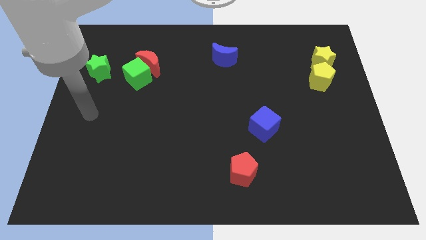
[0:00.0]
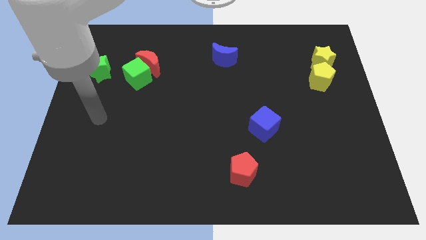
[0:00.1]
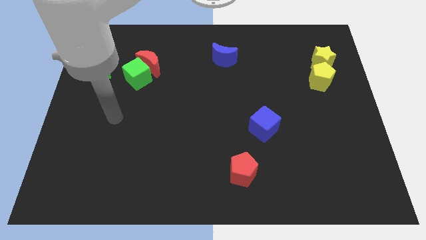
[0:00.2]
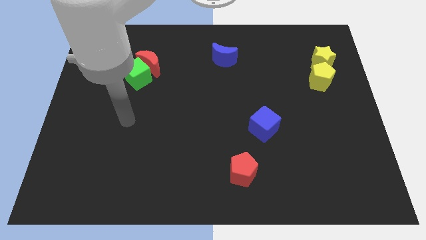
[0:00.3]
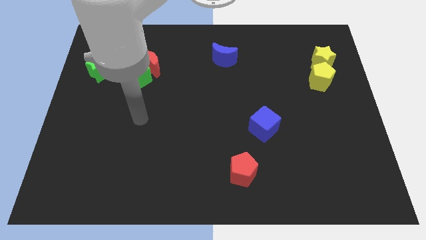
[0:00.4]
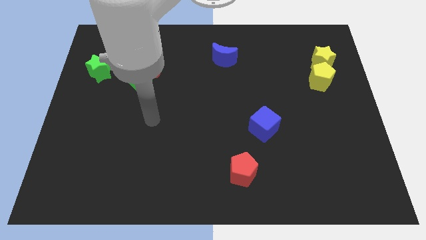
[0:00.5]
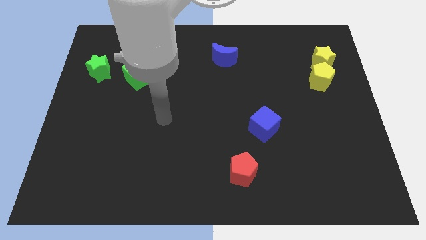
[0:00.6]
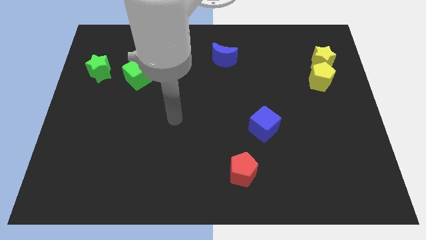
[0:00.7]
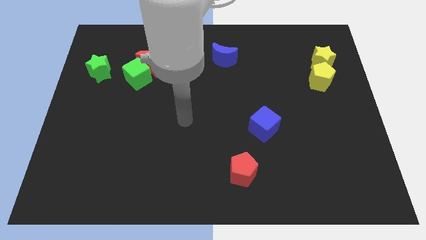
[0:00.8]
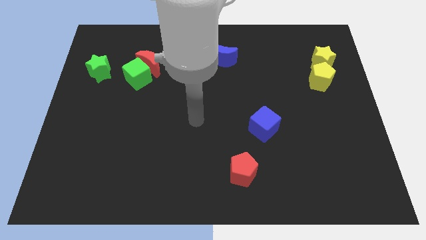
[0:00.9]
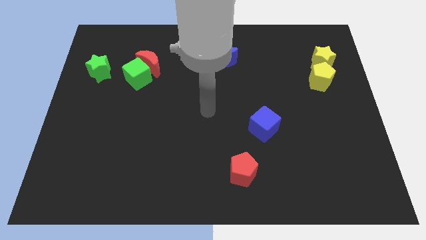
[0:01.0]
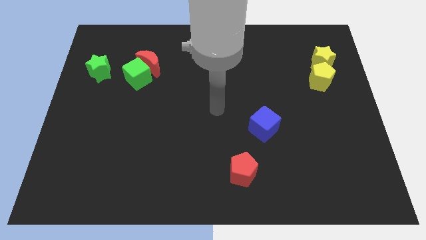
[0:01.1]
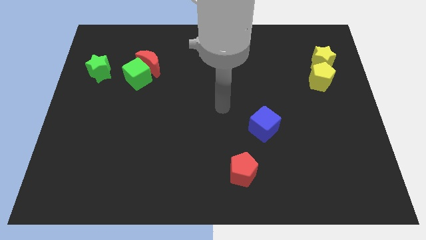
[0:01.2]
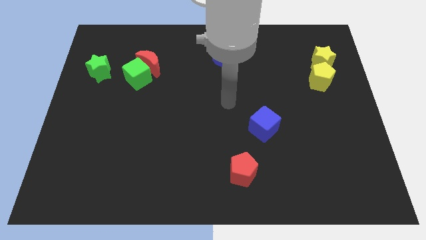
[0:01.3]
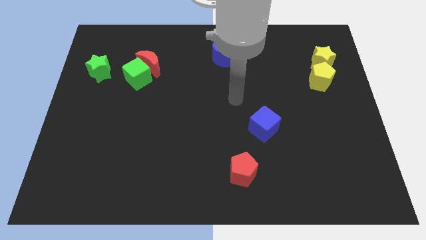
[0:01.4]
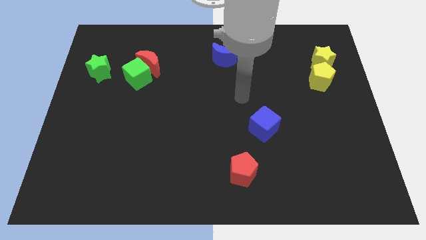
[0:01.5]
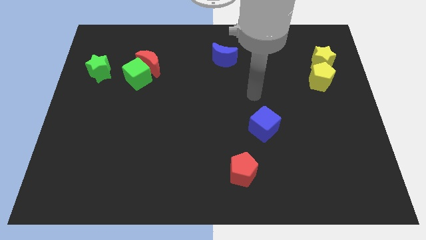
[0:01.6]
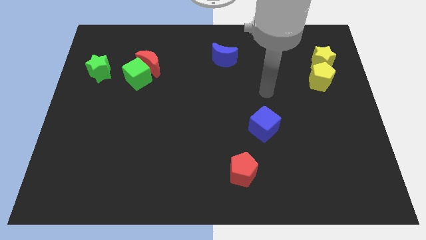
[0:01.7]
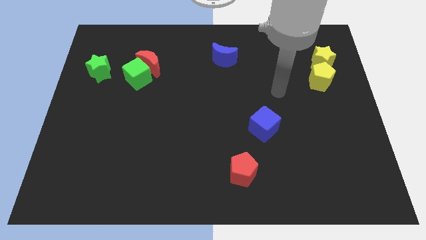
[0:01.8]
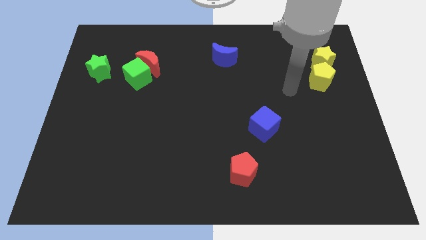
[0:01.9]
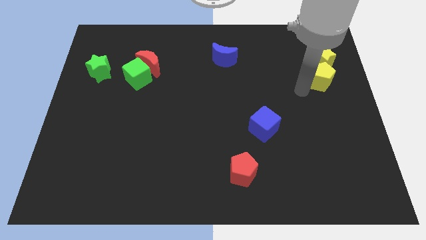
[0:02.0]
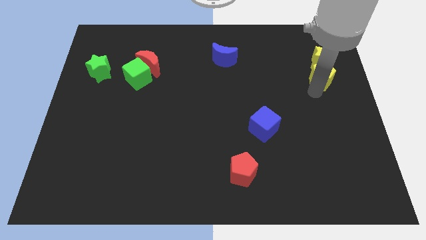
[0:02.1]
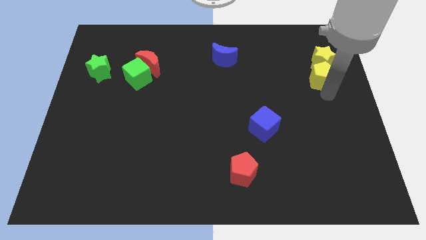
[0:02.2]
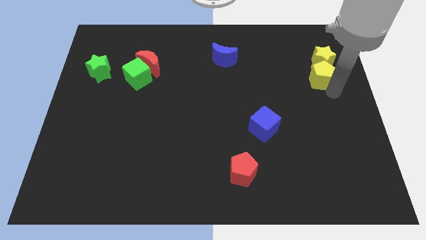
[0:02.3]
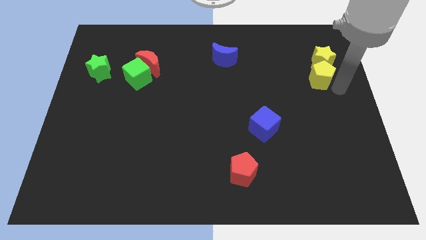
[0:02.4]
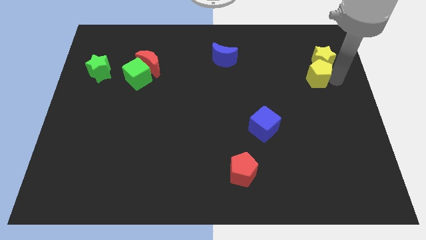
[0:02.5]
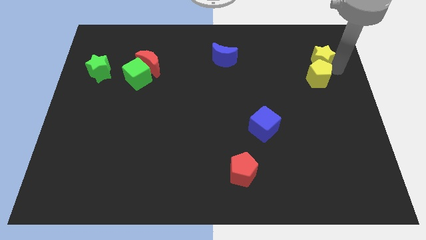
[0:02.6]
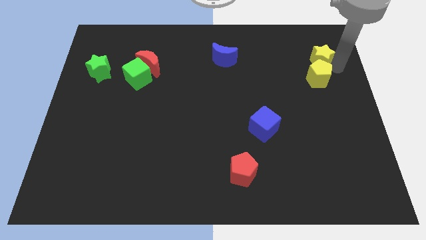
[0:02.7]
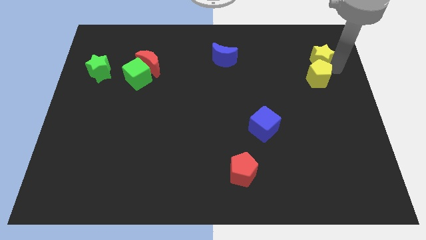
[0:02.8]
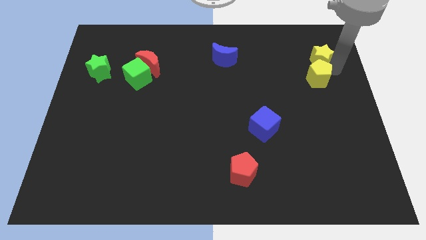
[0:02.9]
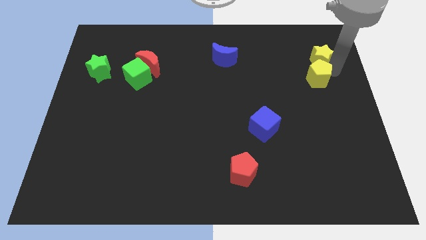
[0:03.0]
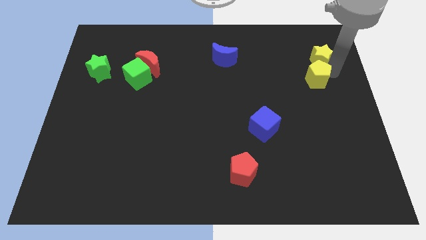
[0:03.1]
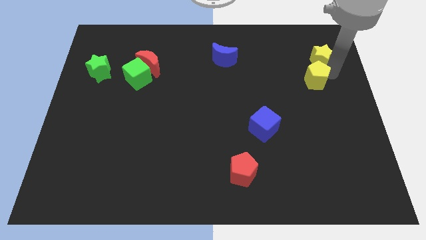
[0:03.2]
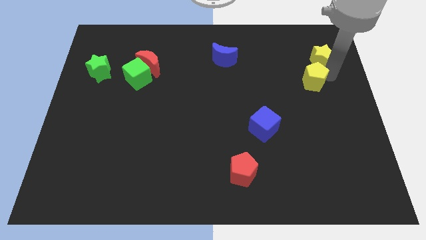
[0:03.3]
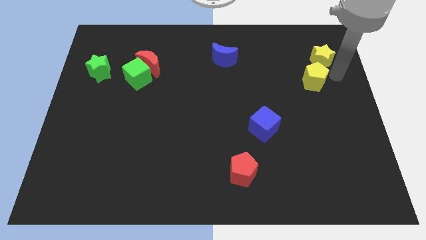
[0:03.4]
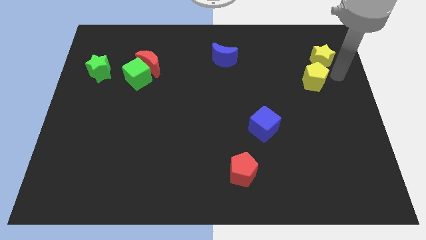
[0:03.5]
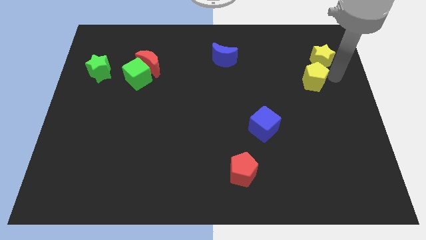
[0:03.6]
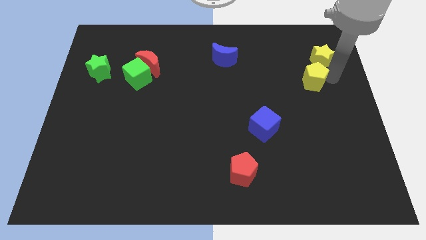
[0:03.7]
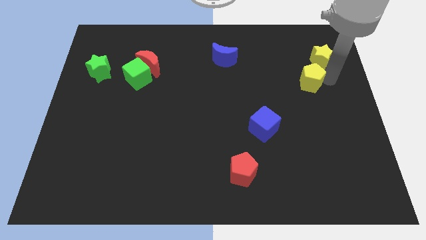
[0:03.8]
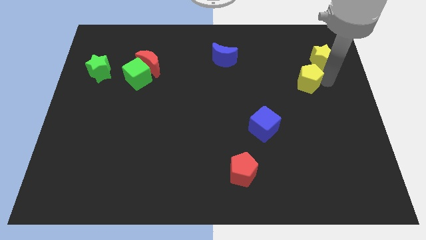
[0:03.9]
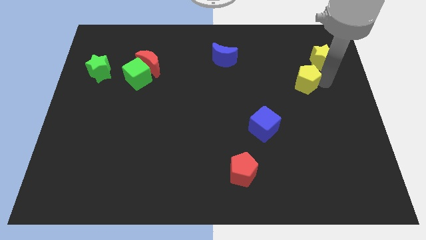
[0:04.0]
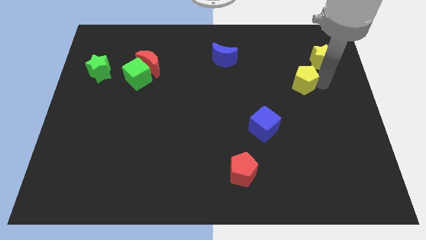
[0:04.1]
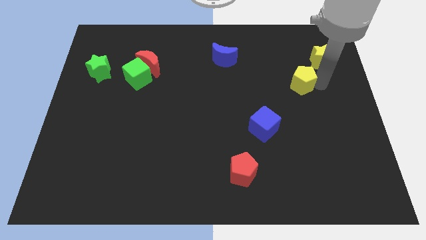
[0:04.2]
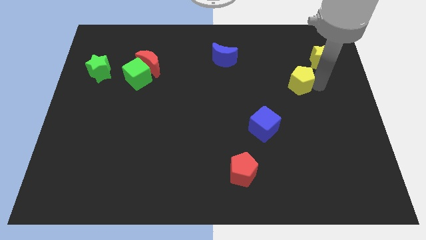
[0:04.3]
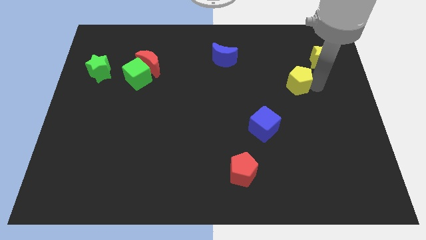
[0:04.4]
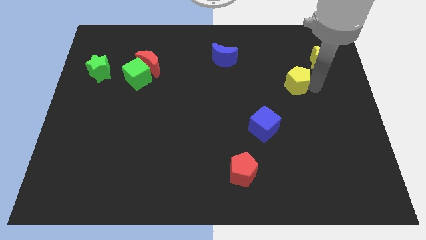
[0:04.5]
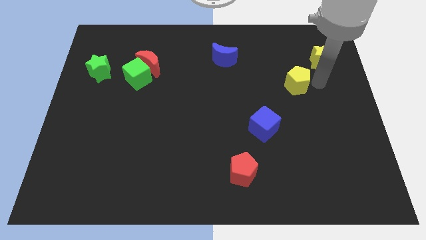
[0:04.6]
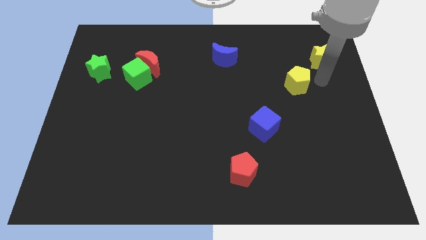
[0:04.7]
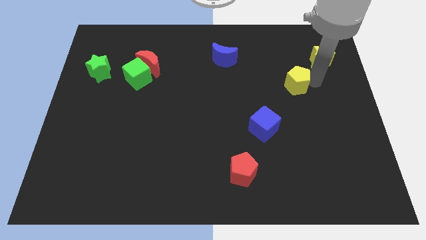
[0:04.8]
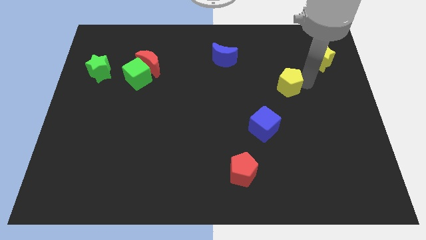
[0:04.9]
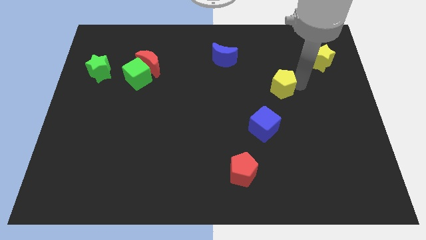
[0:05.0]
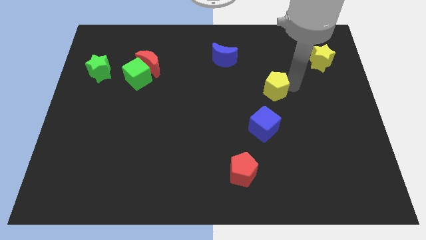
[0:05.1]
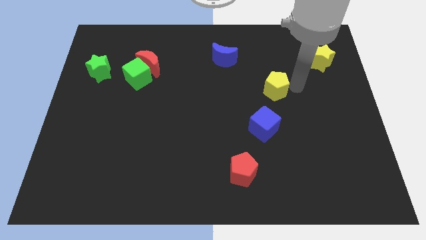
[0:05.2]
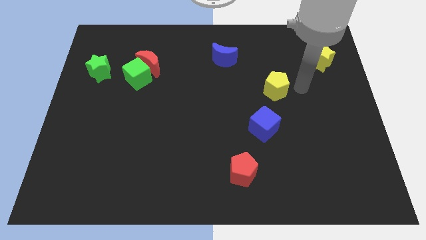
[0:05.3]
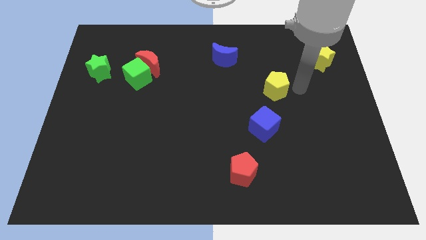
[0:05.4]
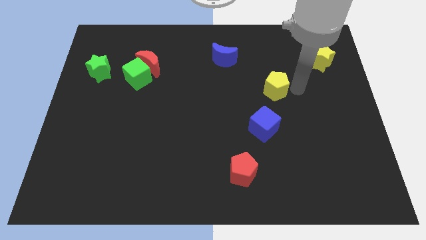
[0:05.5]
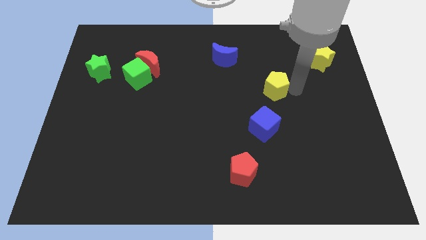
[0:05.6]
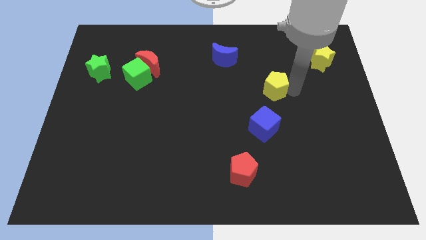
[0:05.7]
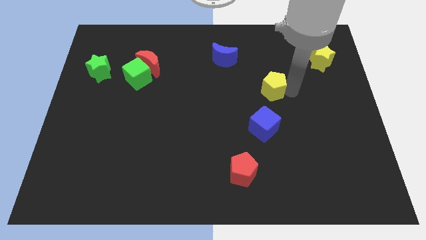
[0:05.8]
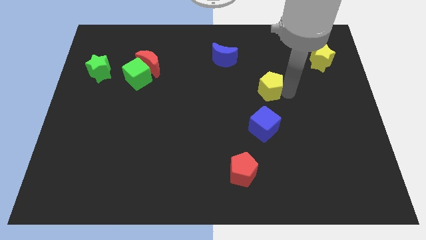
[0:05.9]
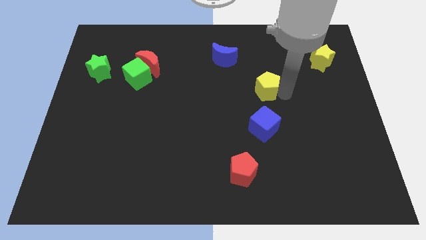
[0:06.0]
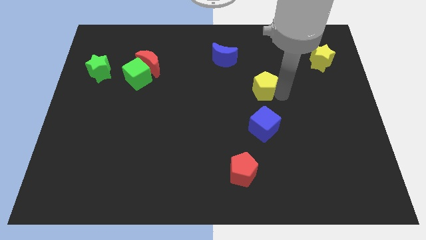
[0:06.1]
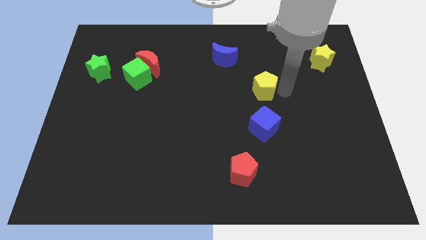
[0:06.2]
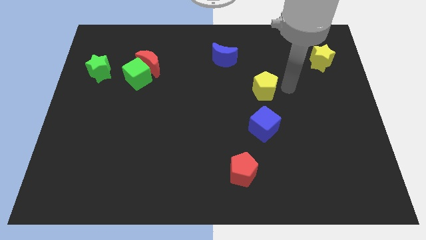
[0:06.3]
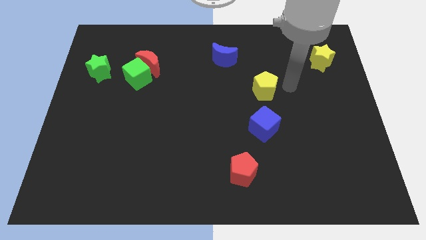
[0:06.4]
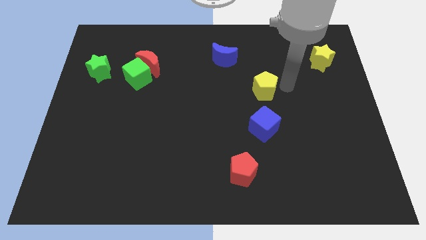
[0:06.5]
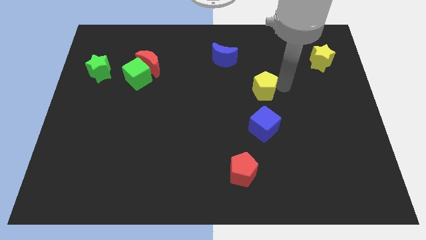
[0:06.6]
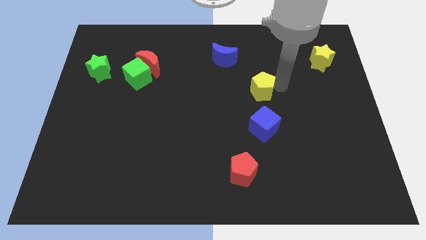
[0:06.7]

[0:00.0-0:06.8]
push the yellow pentagon to the middle

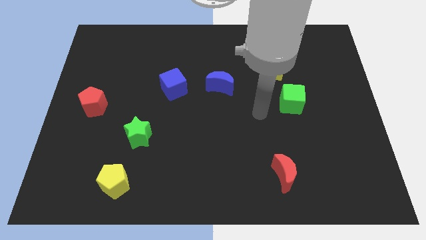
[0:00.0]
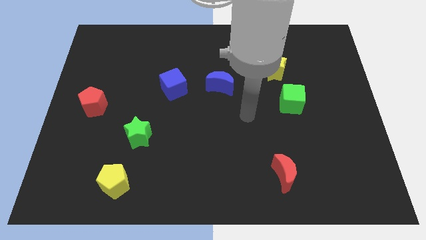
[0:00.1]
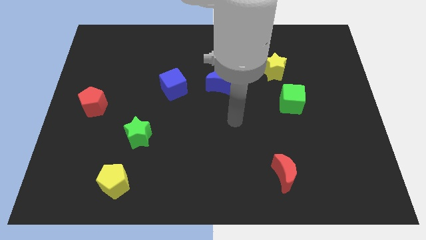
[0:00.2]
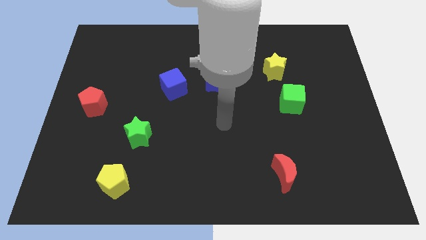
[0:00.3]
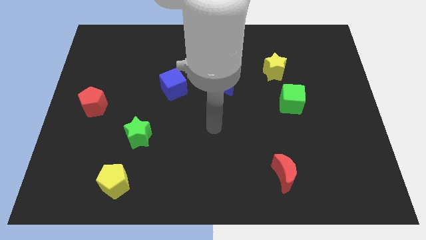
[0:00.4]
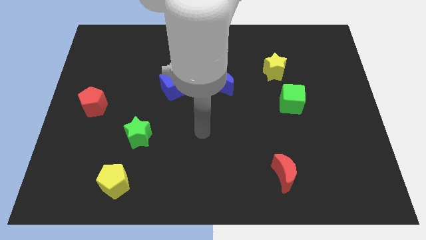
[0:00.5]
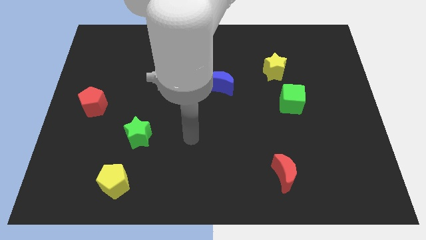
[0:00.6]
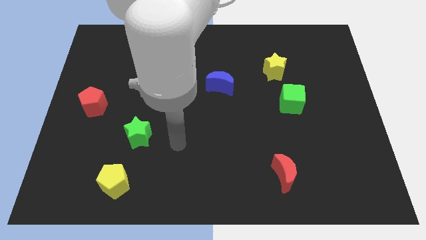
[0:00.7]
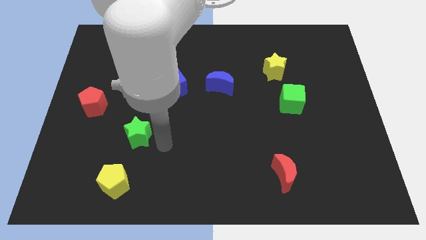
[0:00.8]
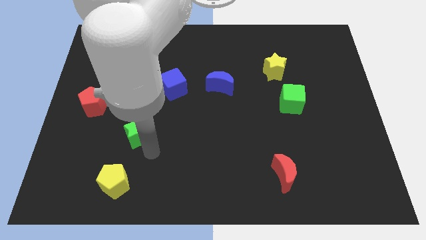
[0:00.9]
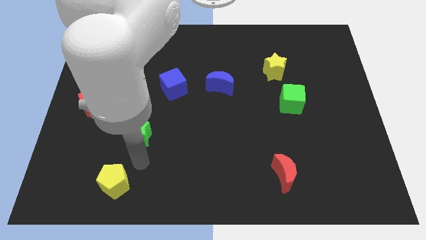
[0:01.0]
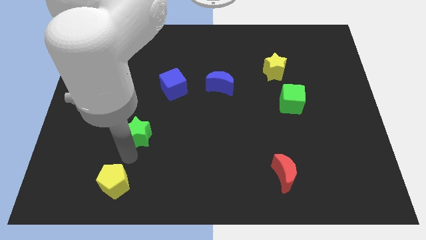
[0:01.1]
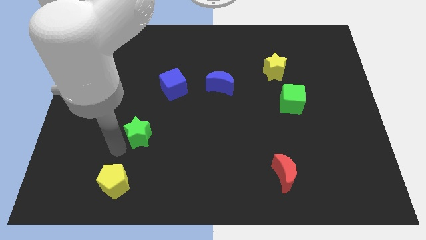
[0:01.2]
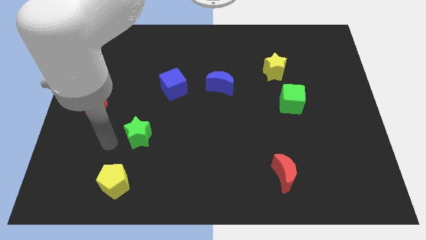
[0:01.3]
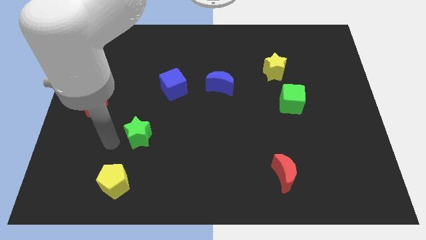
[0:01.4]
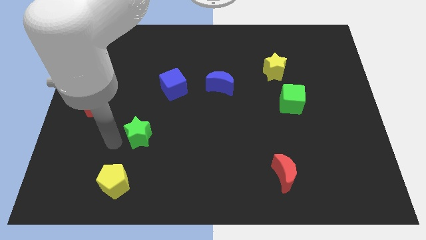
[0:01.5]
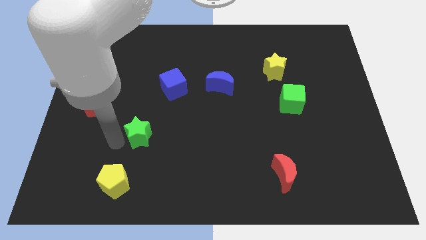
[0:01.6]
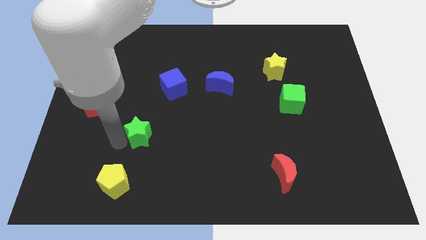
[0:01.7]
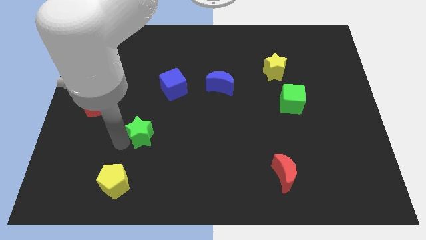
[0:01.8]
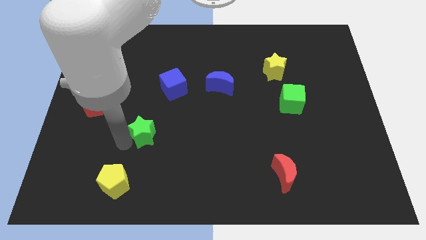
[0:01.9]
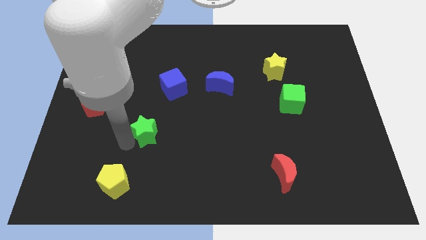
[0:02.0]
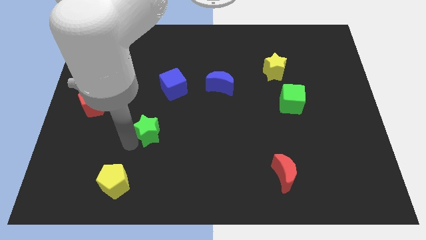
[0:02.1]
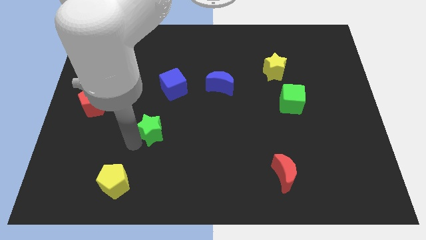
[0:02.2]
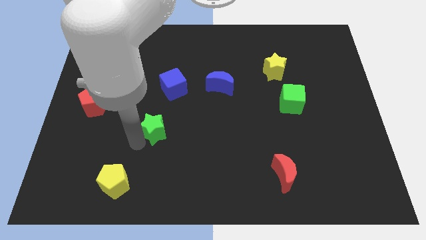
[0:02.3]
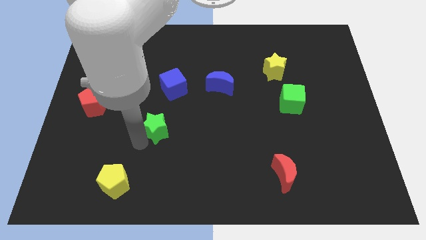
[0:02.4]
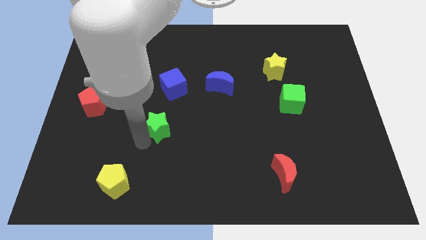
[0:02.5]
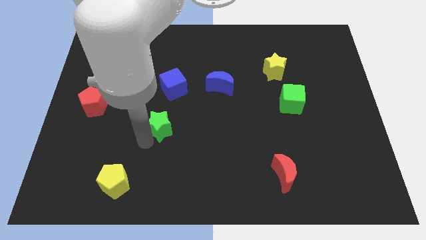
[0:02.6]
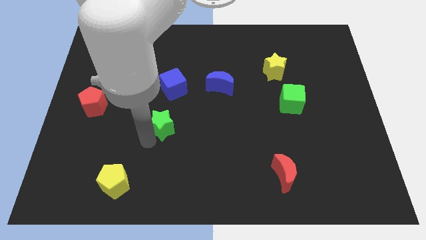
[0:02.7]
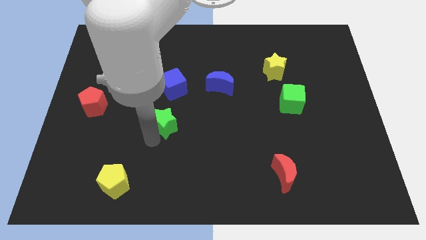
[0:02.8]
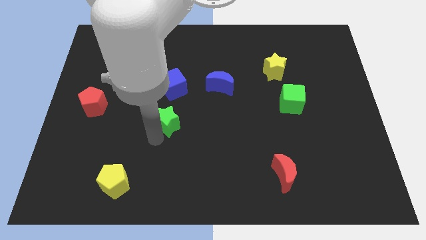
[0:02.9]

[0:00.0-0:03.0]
put the green star to the center of the board
